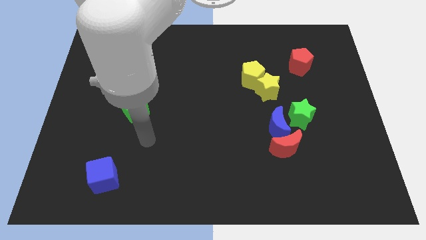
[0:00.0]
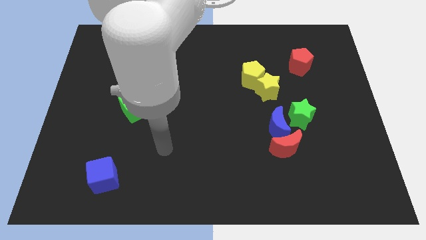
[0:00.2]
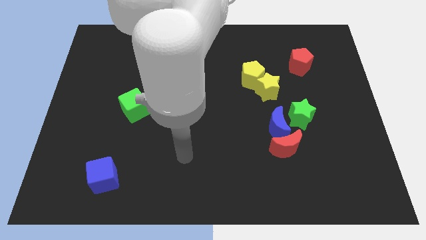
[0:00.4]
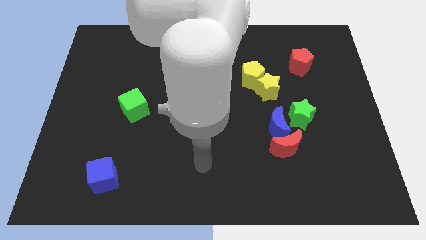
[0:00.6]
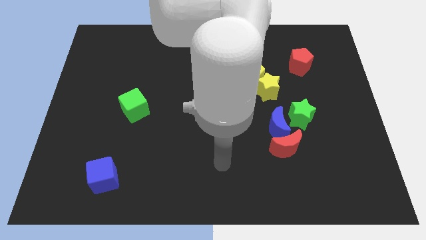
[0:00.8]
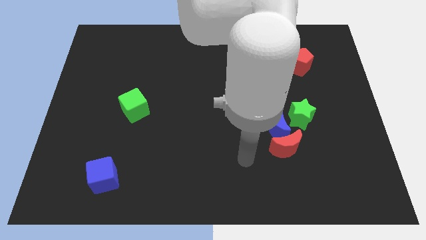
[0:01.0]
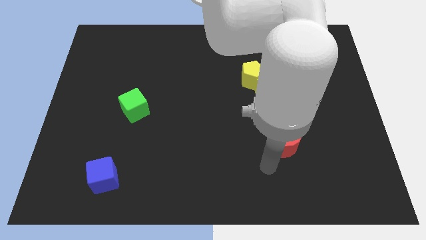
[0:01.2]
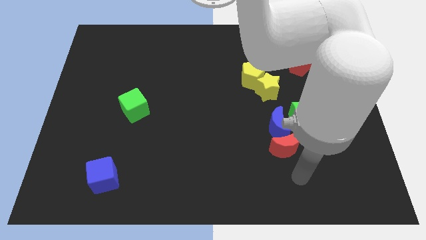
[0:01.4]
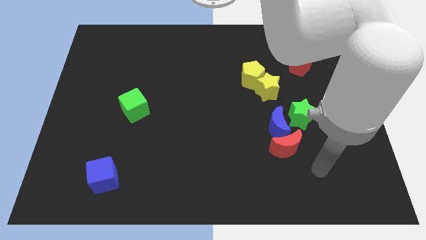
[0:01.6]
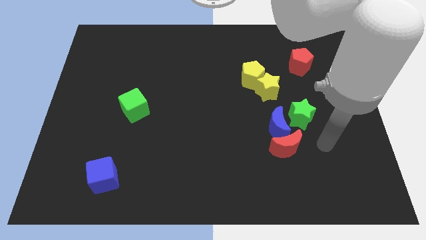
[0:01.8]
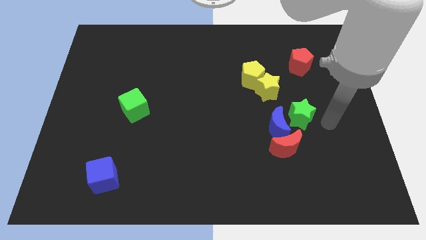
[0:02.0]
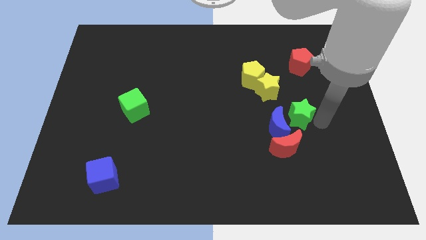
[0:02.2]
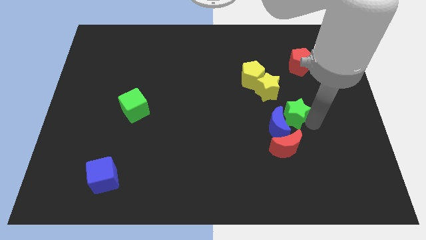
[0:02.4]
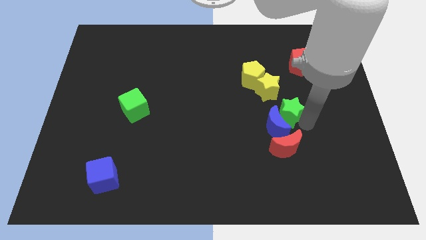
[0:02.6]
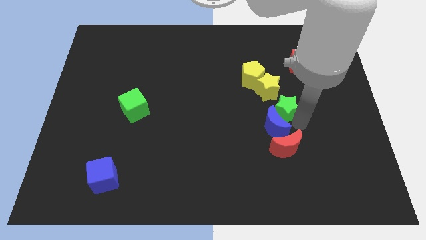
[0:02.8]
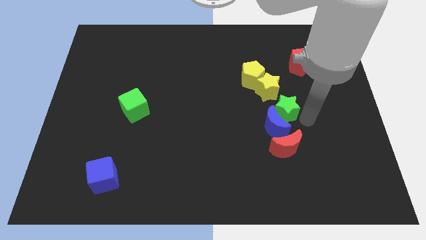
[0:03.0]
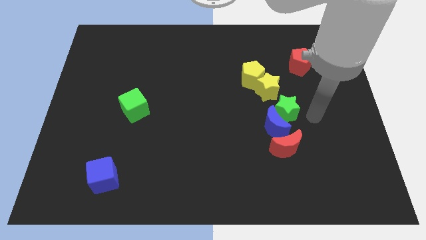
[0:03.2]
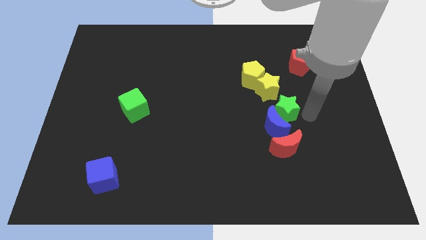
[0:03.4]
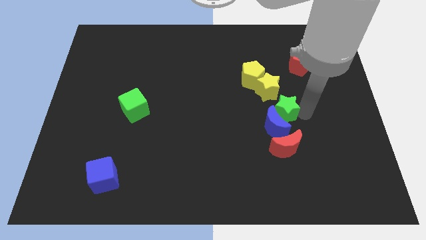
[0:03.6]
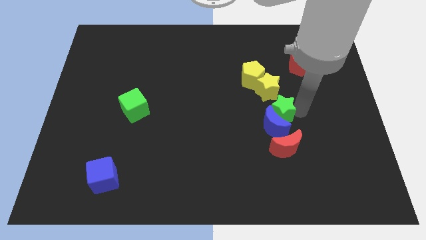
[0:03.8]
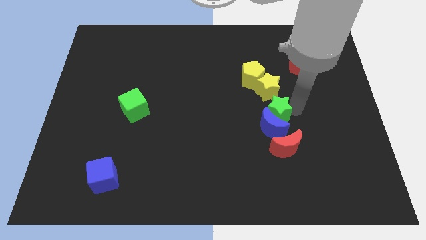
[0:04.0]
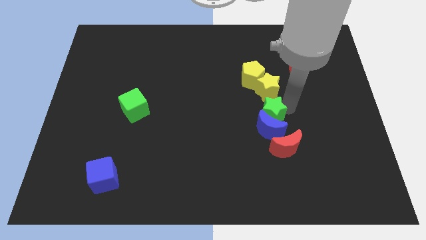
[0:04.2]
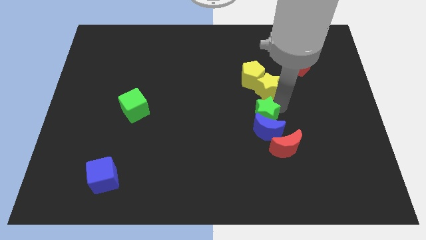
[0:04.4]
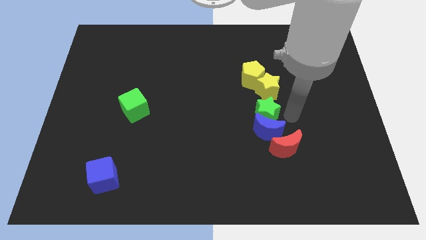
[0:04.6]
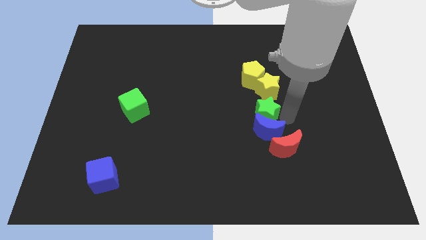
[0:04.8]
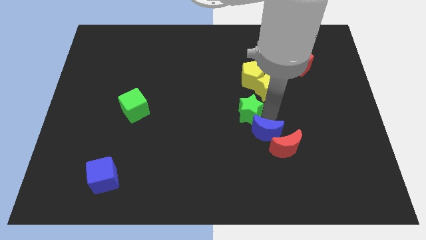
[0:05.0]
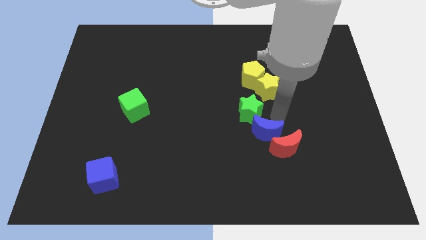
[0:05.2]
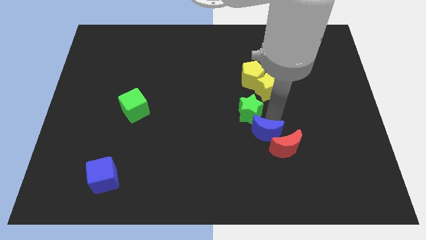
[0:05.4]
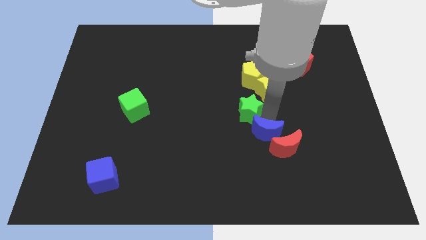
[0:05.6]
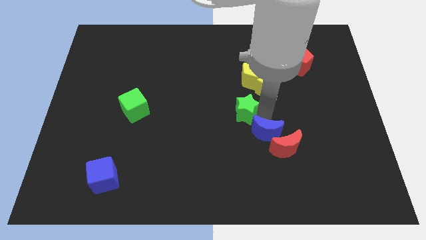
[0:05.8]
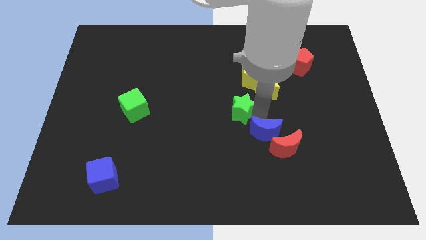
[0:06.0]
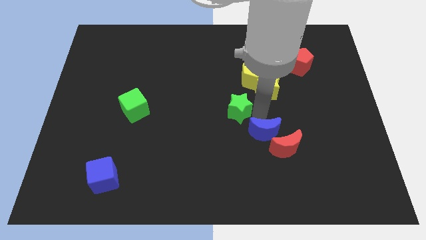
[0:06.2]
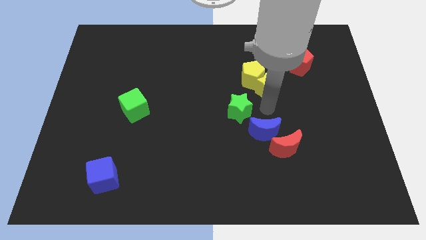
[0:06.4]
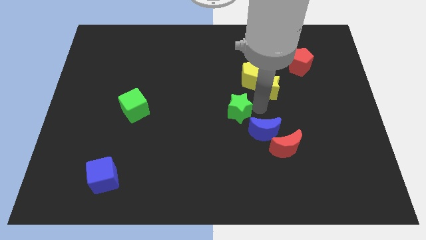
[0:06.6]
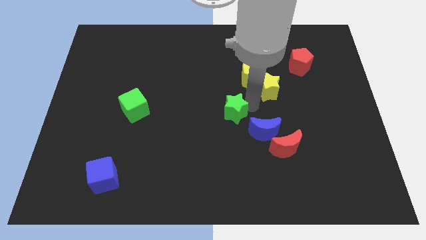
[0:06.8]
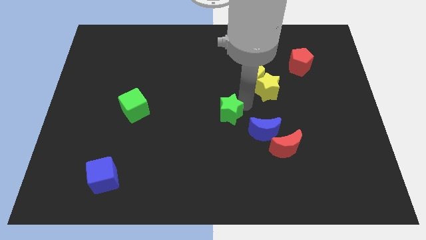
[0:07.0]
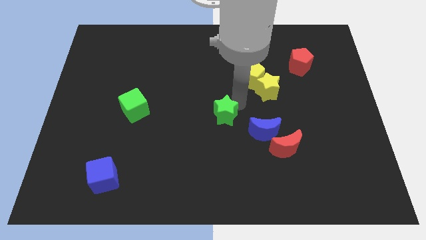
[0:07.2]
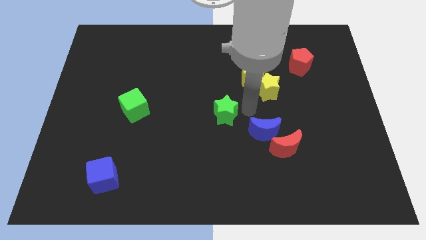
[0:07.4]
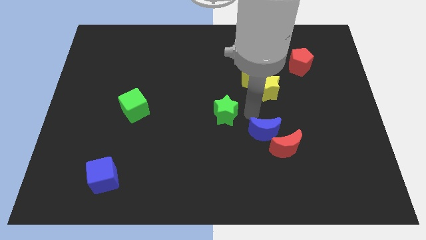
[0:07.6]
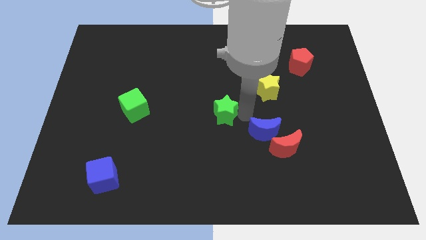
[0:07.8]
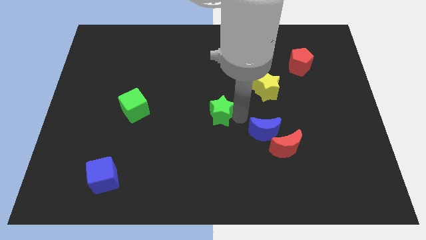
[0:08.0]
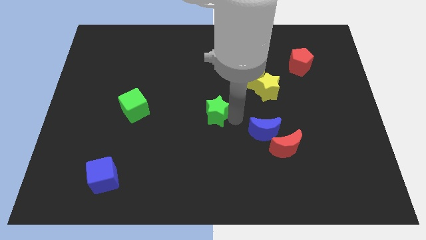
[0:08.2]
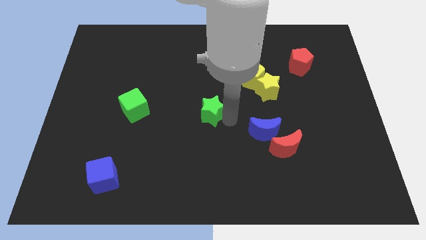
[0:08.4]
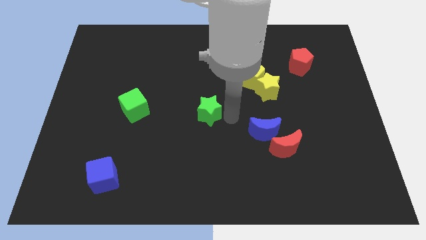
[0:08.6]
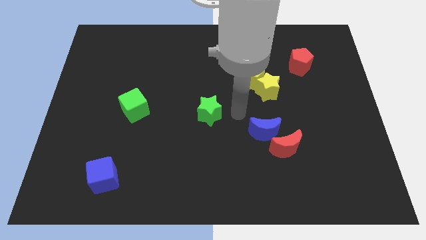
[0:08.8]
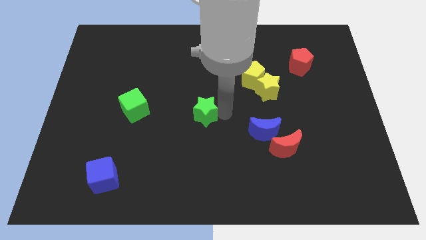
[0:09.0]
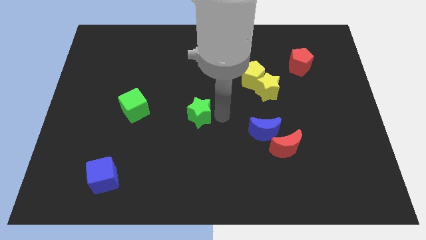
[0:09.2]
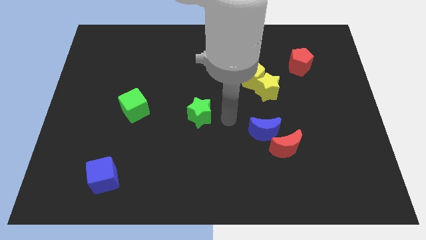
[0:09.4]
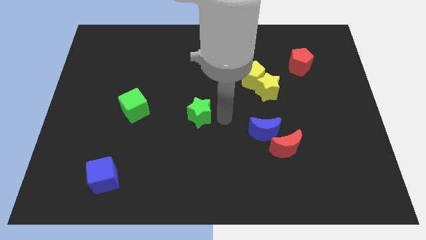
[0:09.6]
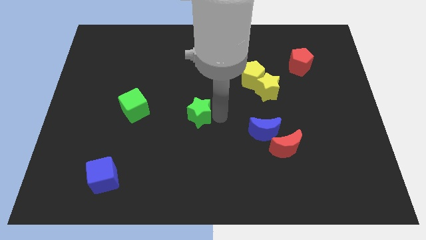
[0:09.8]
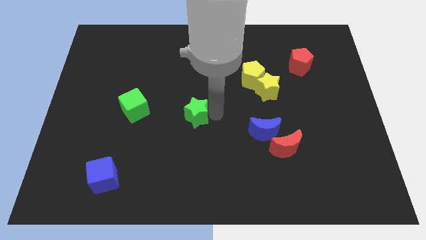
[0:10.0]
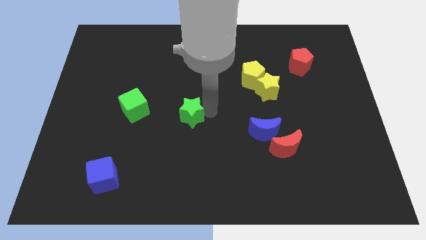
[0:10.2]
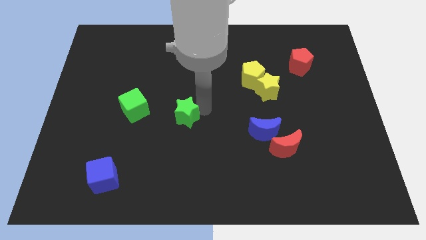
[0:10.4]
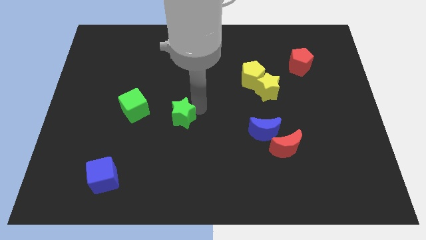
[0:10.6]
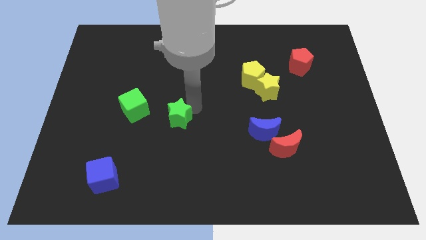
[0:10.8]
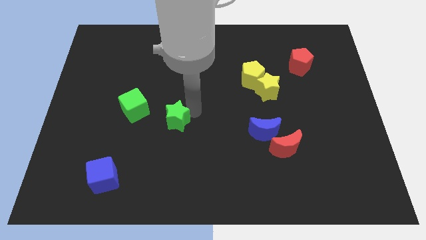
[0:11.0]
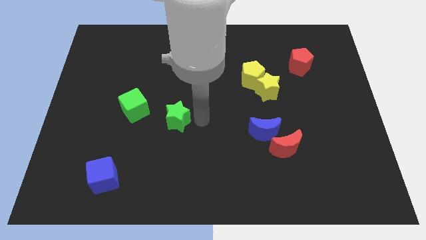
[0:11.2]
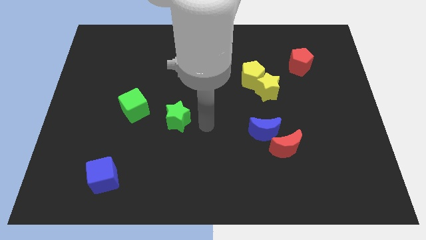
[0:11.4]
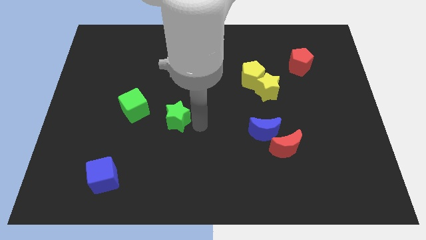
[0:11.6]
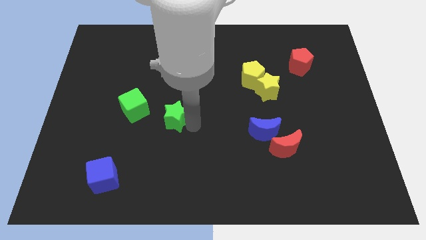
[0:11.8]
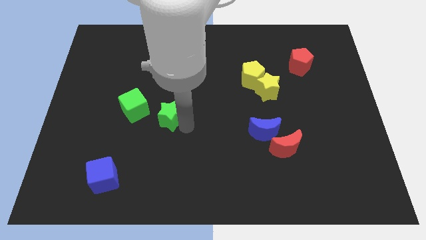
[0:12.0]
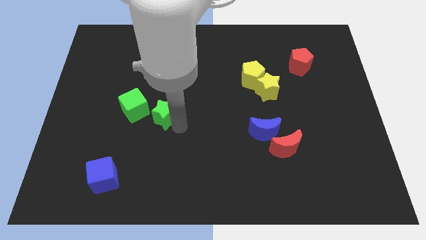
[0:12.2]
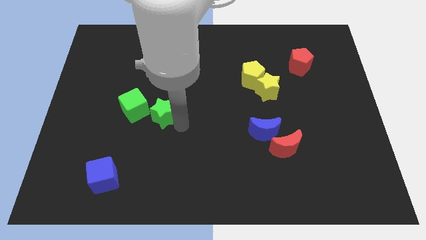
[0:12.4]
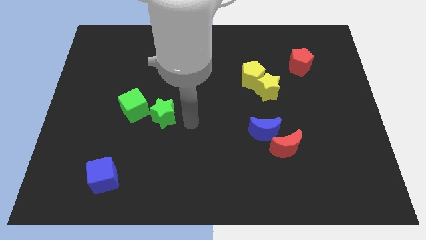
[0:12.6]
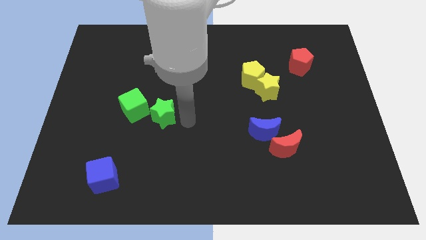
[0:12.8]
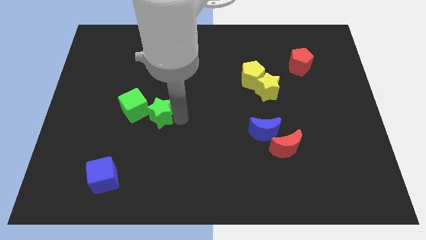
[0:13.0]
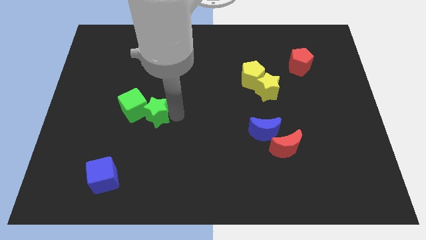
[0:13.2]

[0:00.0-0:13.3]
slide the green star next to the green cube
